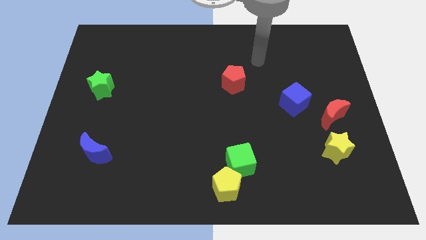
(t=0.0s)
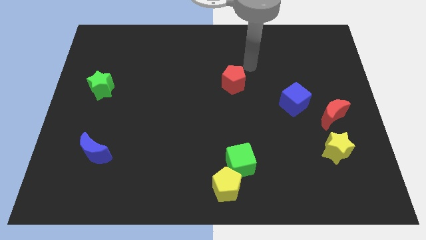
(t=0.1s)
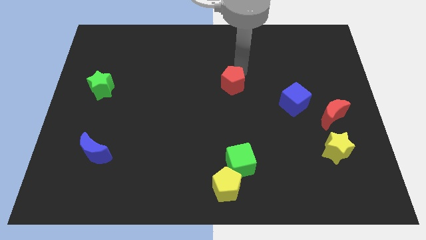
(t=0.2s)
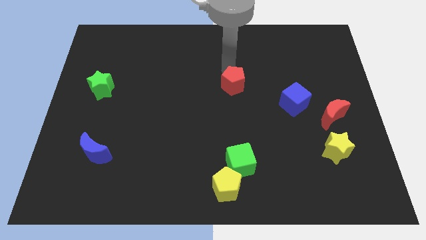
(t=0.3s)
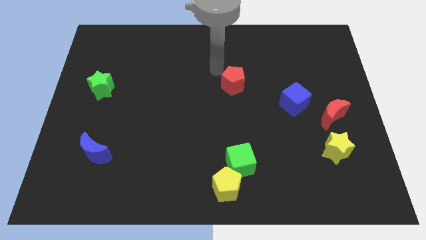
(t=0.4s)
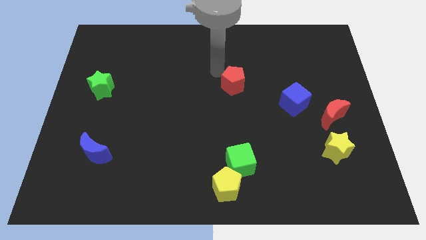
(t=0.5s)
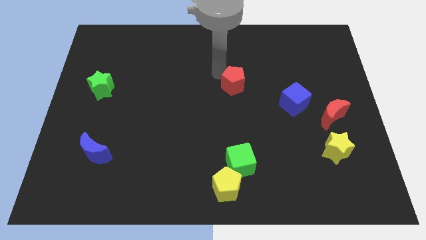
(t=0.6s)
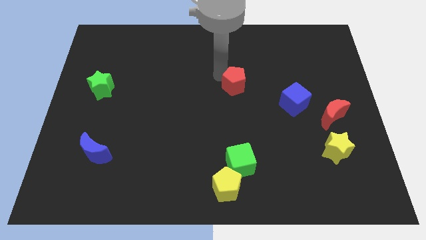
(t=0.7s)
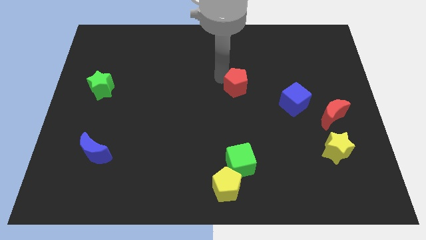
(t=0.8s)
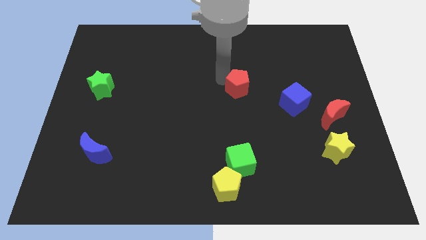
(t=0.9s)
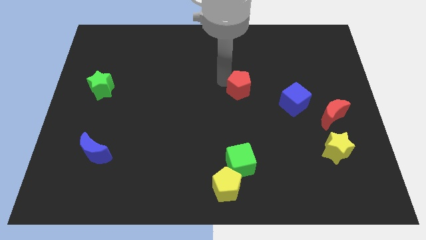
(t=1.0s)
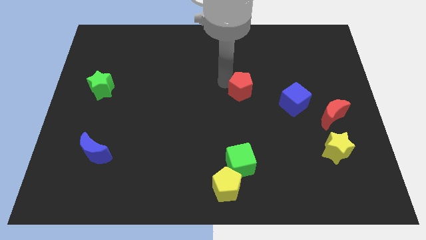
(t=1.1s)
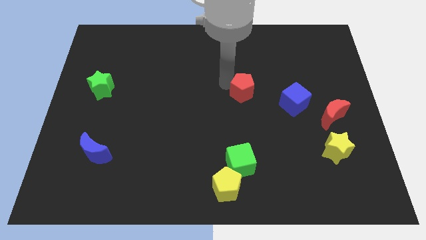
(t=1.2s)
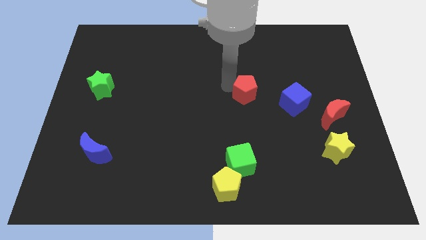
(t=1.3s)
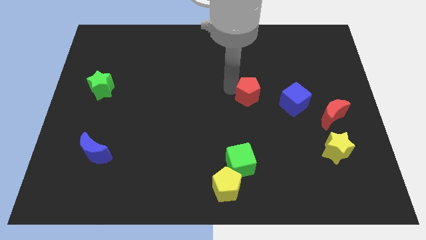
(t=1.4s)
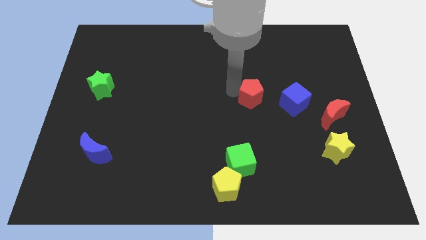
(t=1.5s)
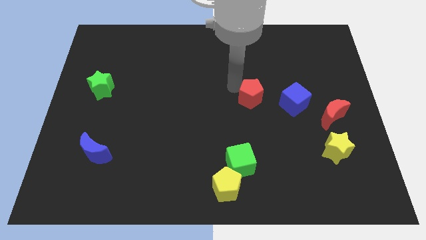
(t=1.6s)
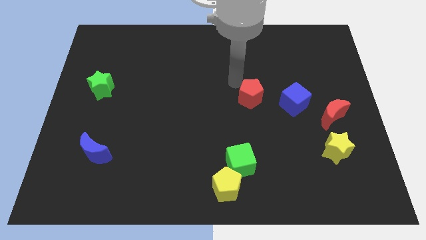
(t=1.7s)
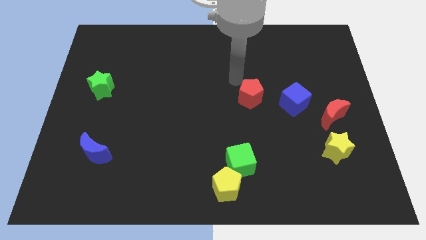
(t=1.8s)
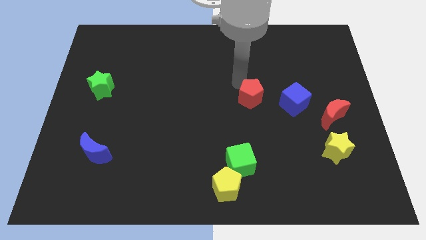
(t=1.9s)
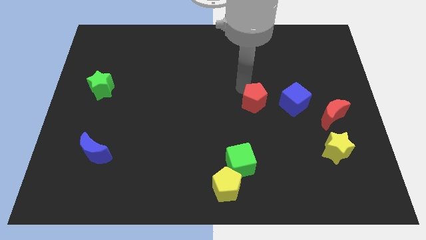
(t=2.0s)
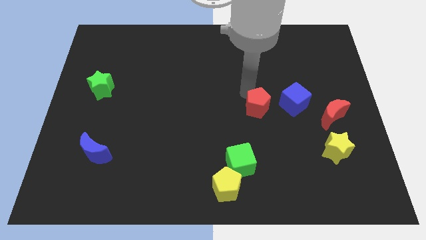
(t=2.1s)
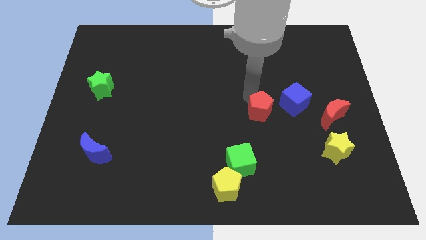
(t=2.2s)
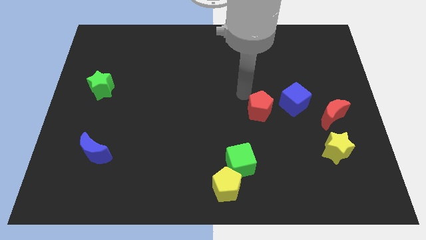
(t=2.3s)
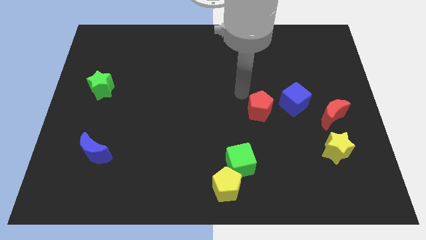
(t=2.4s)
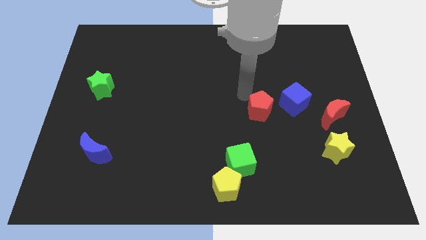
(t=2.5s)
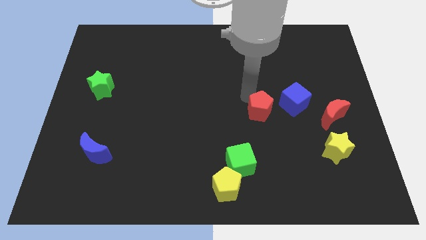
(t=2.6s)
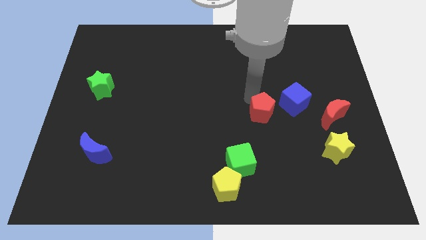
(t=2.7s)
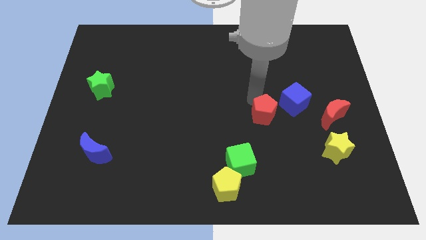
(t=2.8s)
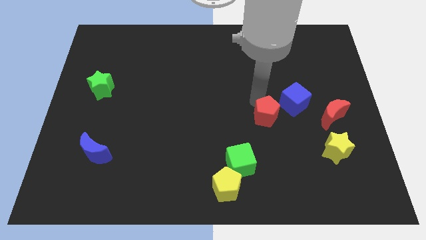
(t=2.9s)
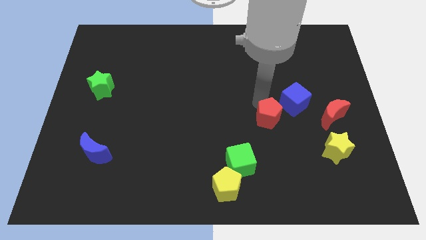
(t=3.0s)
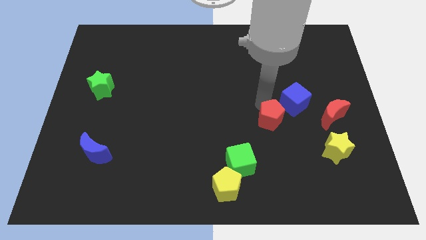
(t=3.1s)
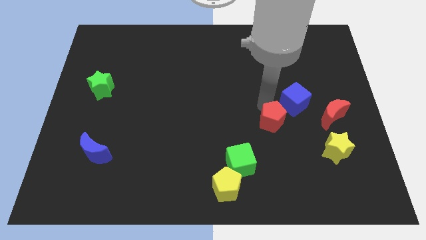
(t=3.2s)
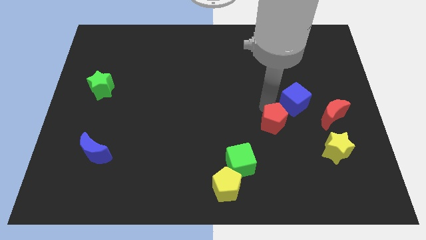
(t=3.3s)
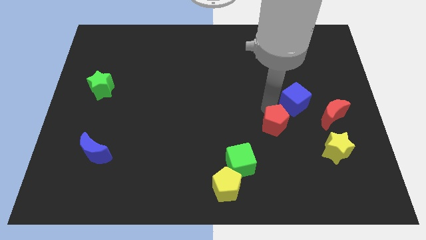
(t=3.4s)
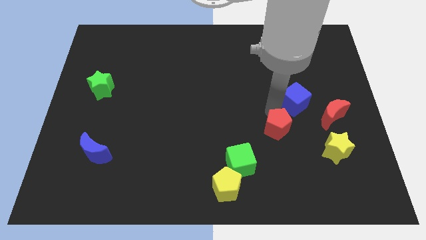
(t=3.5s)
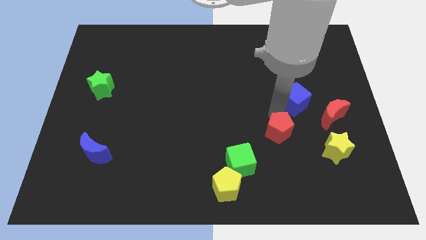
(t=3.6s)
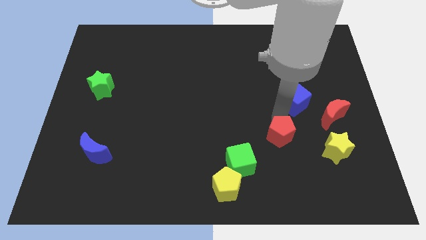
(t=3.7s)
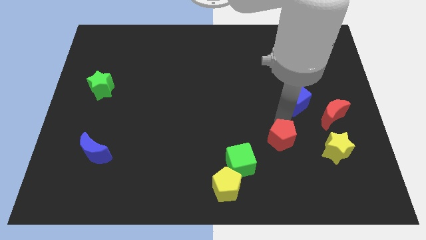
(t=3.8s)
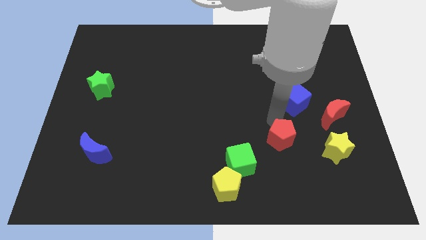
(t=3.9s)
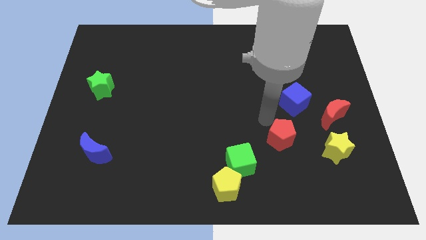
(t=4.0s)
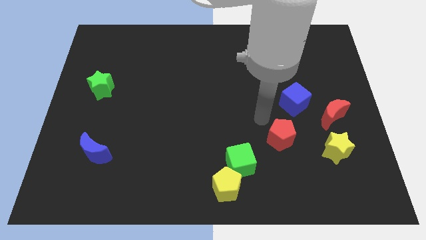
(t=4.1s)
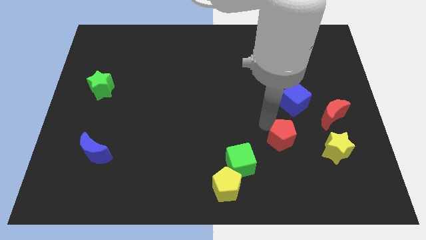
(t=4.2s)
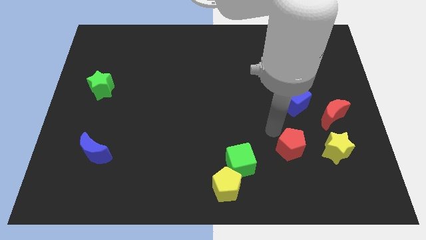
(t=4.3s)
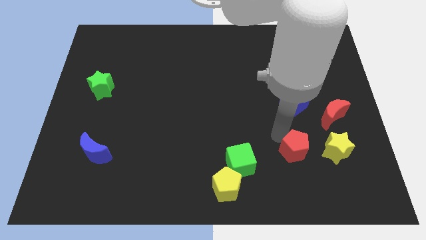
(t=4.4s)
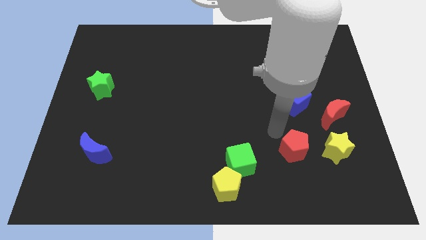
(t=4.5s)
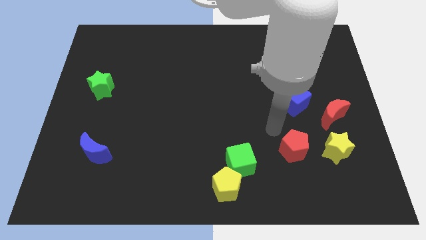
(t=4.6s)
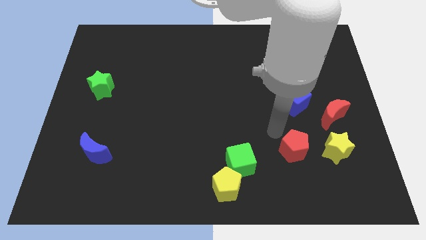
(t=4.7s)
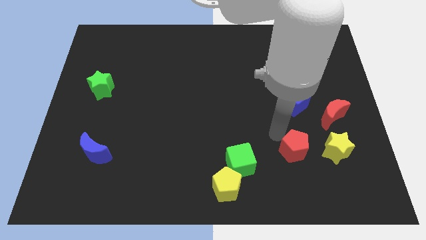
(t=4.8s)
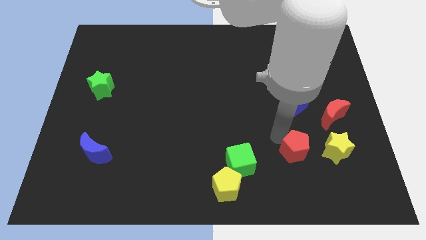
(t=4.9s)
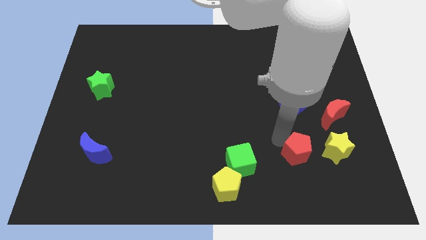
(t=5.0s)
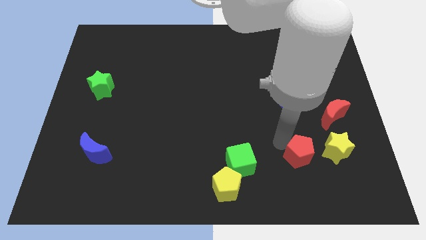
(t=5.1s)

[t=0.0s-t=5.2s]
slide the red pentagon diagonally down and to the left of the yellow star

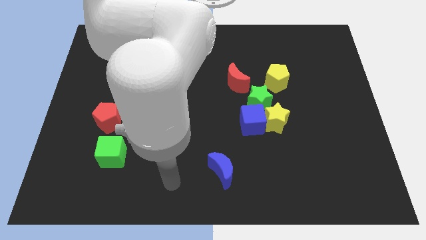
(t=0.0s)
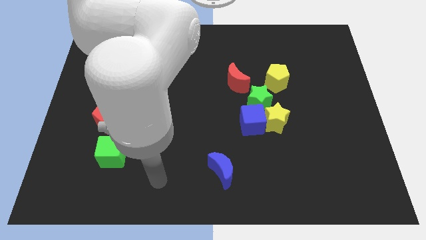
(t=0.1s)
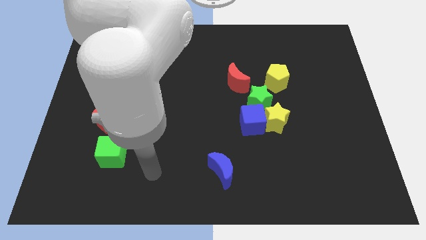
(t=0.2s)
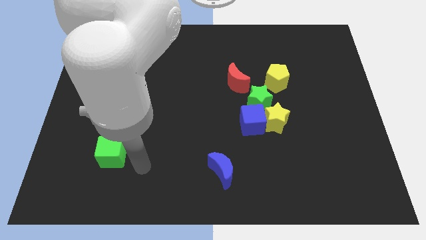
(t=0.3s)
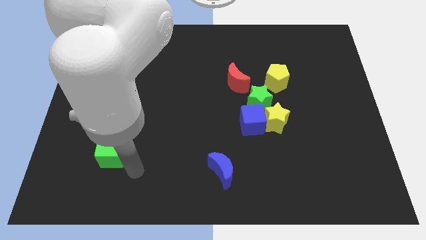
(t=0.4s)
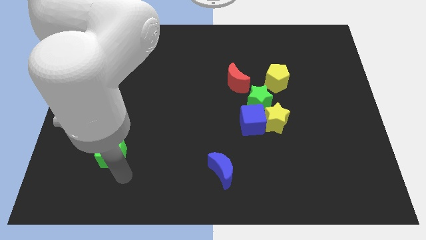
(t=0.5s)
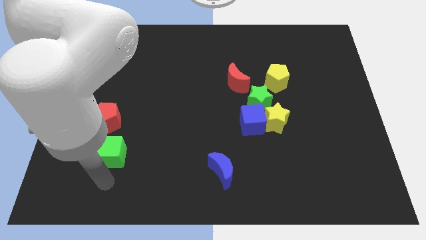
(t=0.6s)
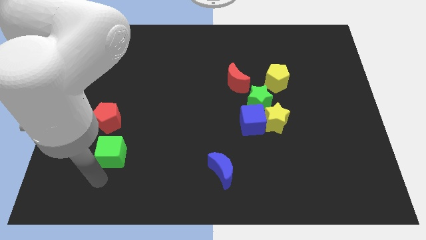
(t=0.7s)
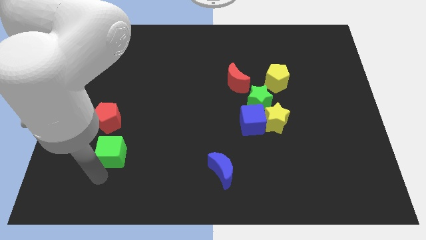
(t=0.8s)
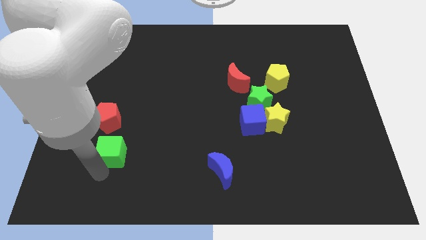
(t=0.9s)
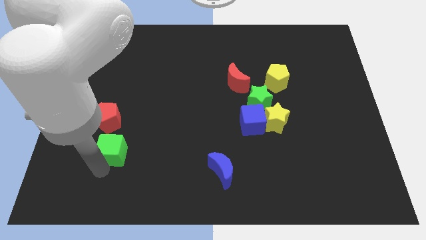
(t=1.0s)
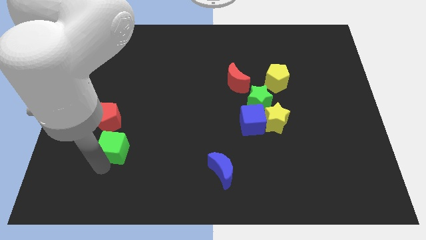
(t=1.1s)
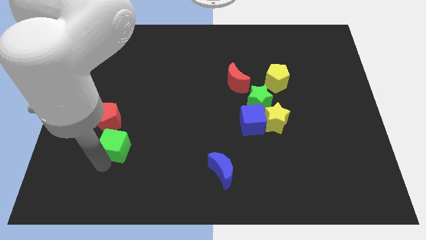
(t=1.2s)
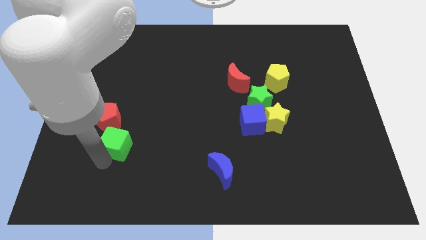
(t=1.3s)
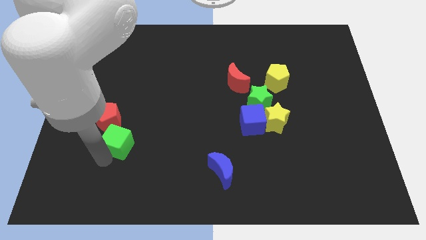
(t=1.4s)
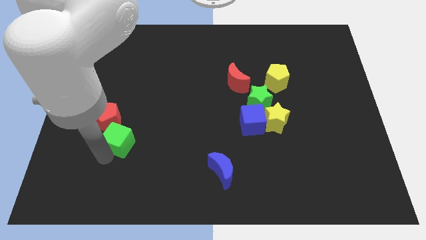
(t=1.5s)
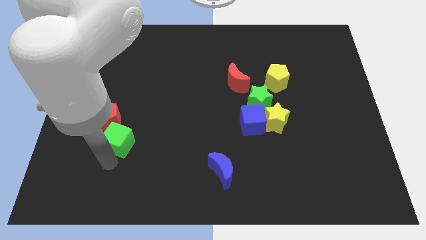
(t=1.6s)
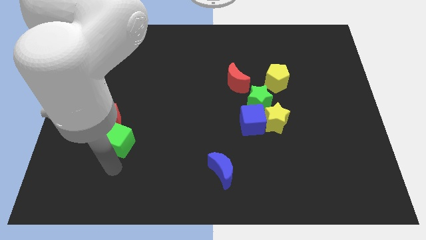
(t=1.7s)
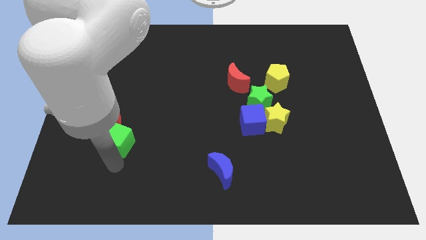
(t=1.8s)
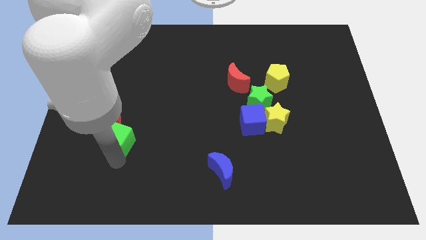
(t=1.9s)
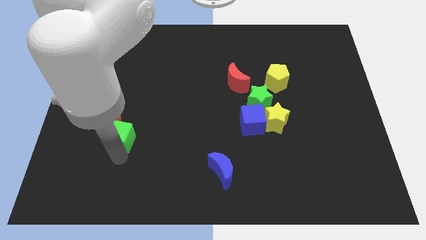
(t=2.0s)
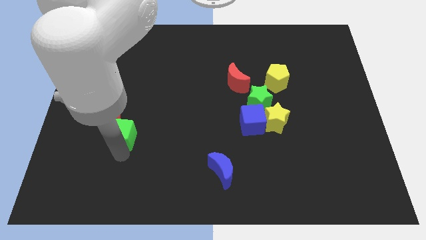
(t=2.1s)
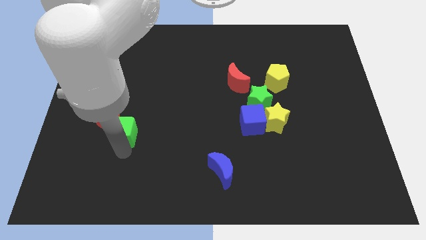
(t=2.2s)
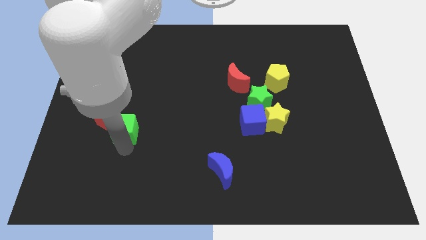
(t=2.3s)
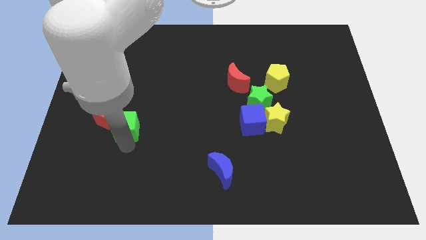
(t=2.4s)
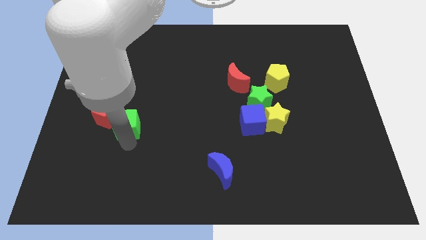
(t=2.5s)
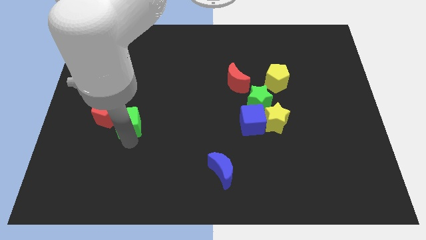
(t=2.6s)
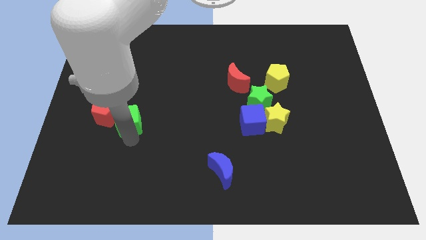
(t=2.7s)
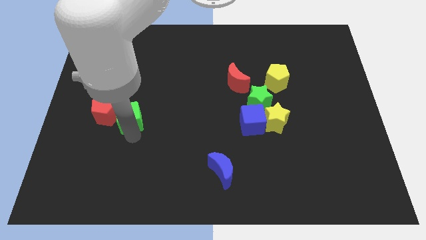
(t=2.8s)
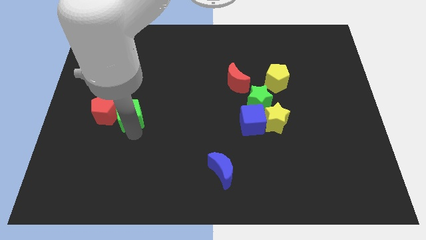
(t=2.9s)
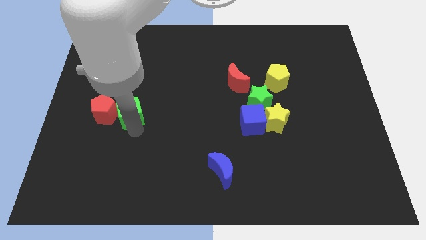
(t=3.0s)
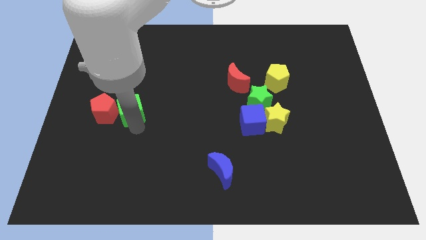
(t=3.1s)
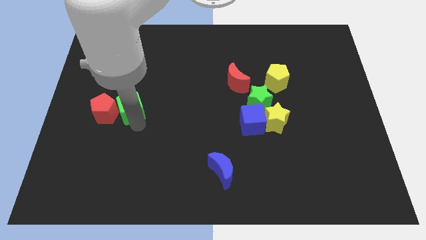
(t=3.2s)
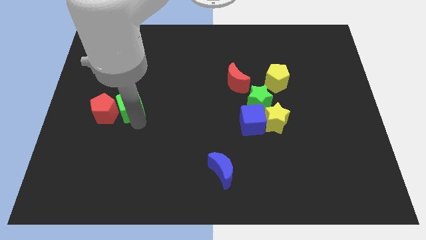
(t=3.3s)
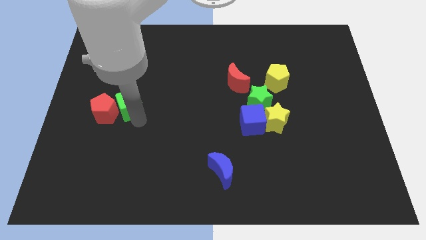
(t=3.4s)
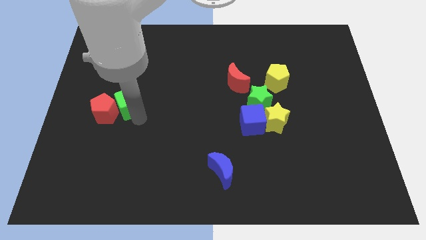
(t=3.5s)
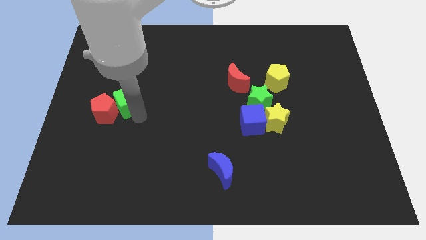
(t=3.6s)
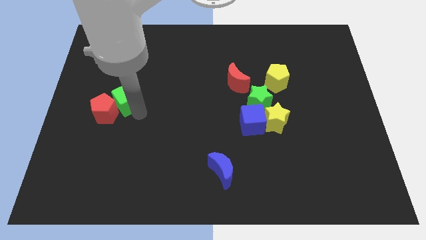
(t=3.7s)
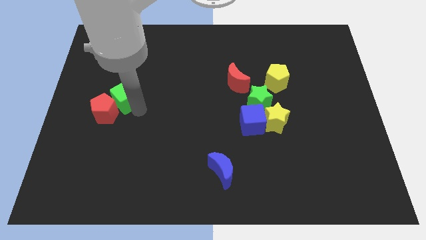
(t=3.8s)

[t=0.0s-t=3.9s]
move the green cube to the top side of the red pentagon
